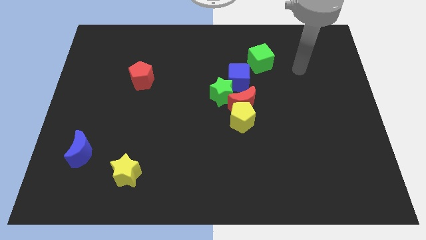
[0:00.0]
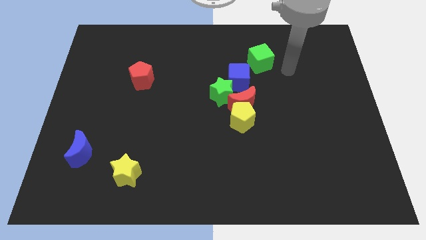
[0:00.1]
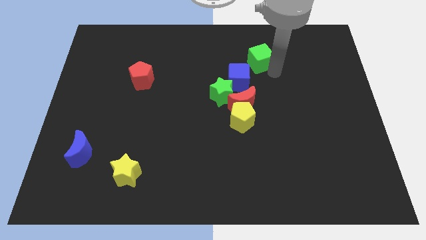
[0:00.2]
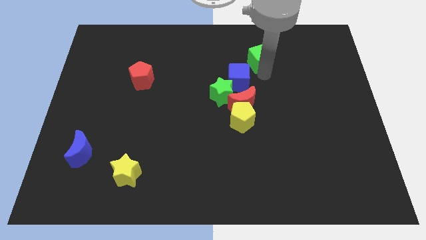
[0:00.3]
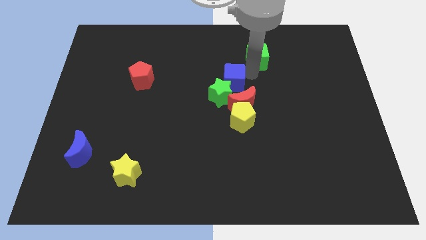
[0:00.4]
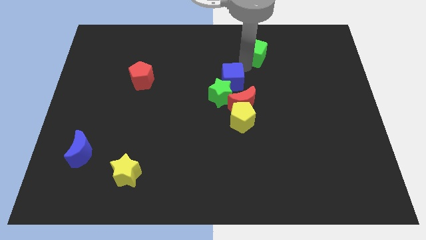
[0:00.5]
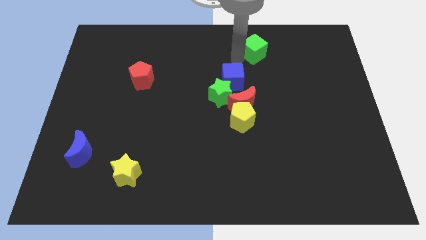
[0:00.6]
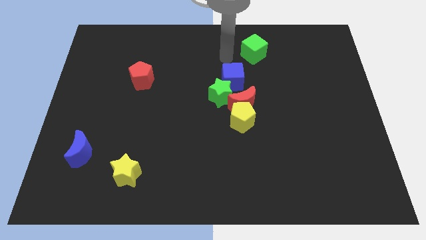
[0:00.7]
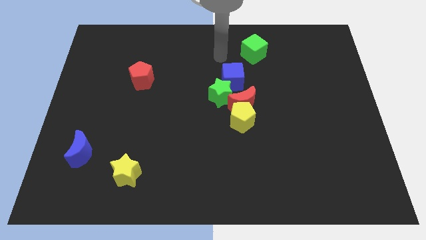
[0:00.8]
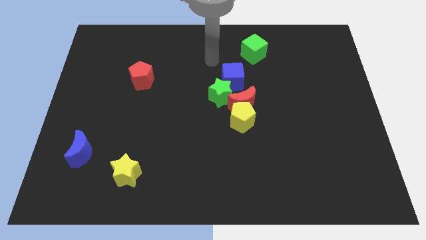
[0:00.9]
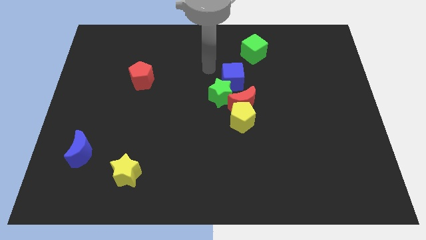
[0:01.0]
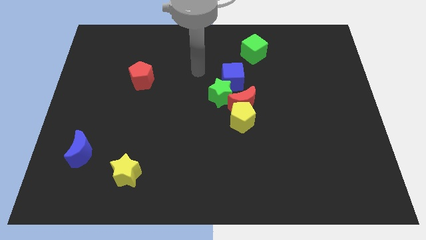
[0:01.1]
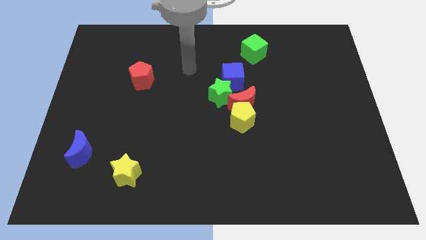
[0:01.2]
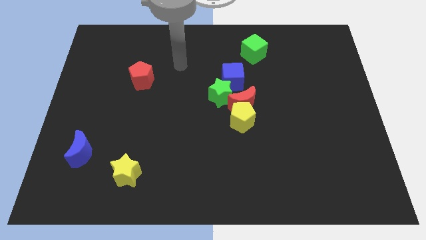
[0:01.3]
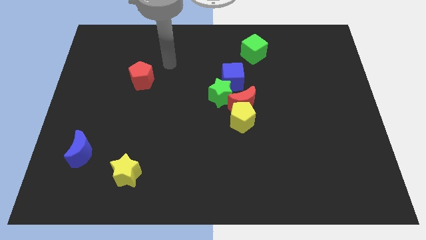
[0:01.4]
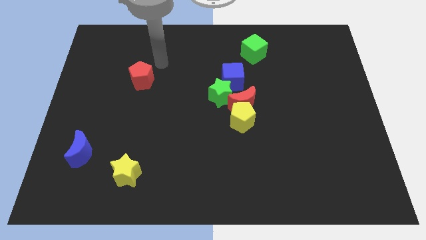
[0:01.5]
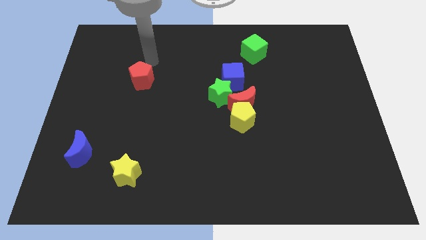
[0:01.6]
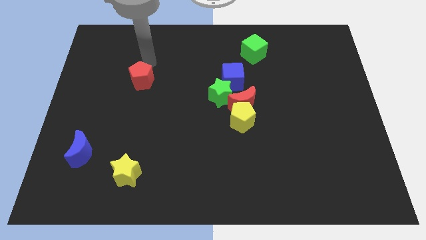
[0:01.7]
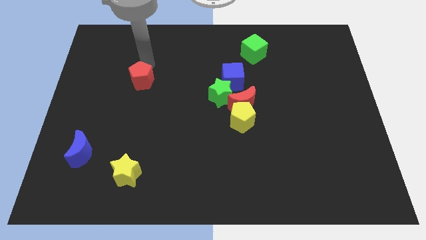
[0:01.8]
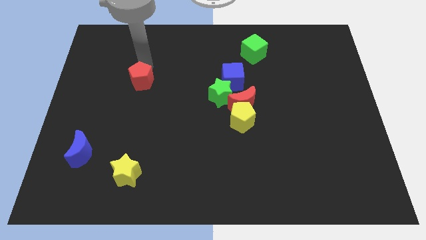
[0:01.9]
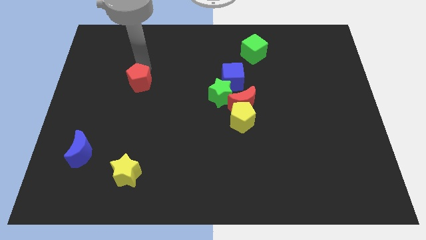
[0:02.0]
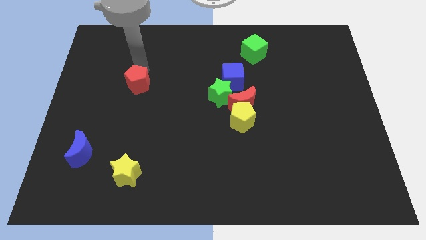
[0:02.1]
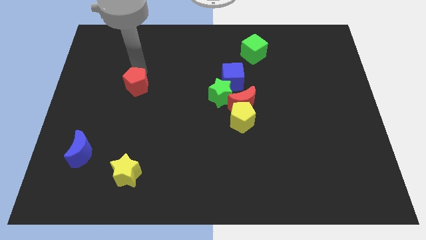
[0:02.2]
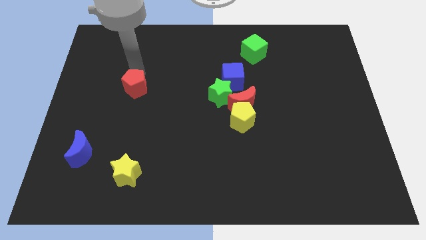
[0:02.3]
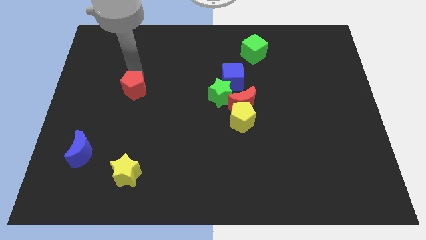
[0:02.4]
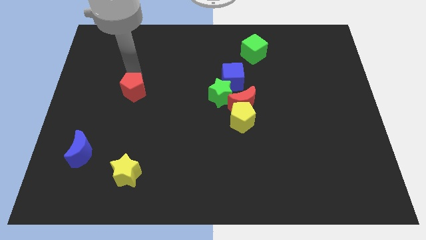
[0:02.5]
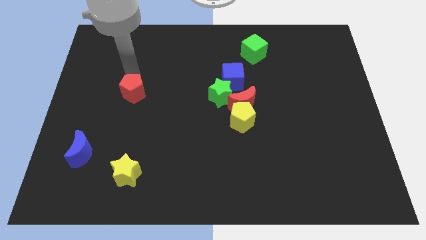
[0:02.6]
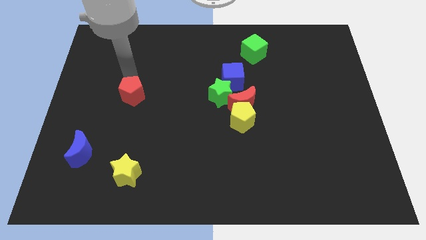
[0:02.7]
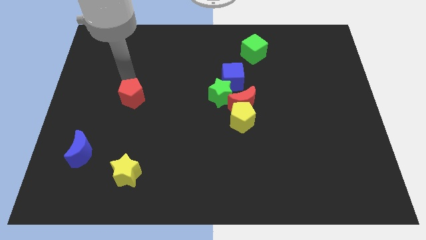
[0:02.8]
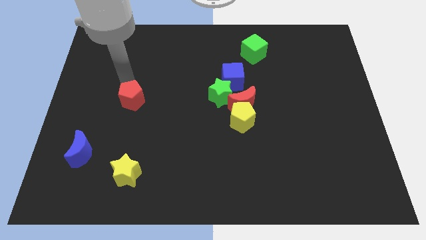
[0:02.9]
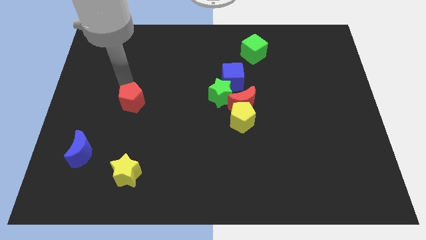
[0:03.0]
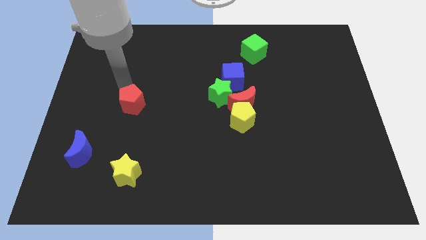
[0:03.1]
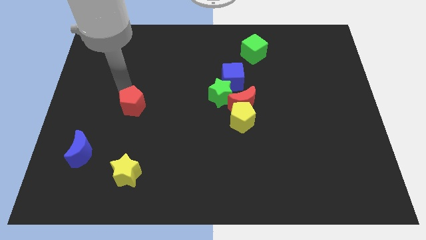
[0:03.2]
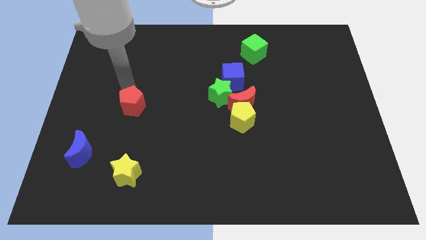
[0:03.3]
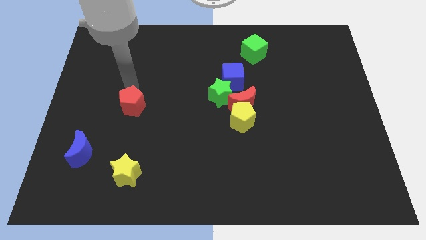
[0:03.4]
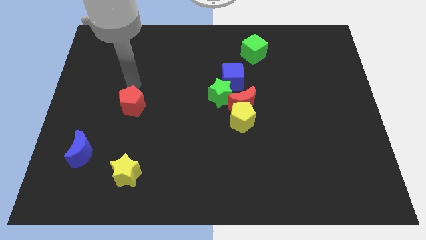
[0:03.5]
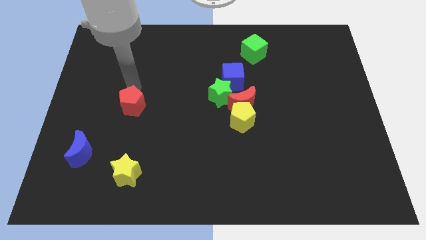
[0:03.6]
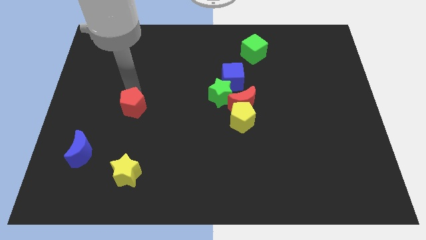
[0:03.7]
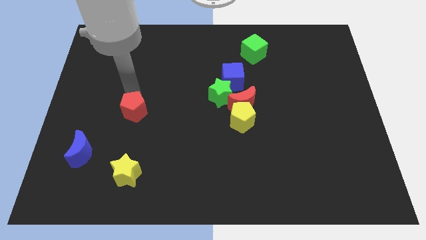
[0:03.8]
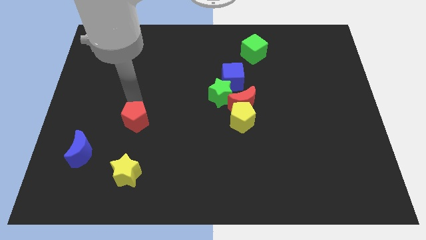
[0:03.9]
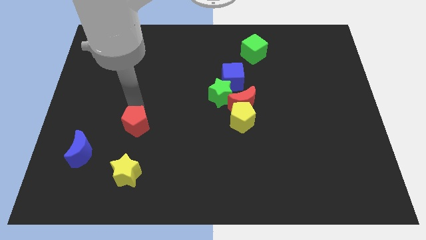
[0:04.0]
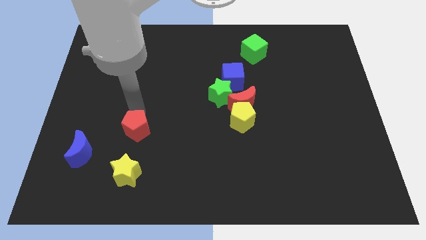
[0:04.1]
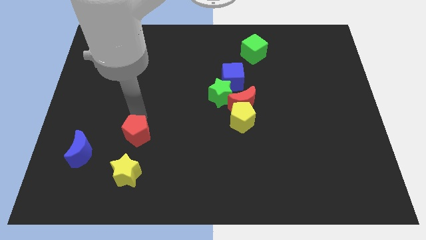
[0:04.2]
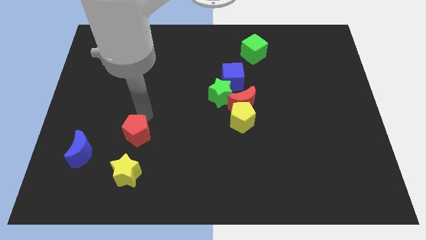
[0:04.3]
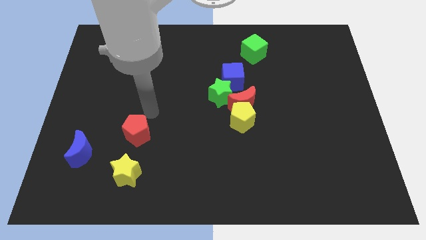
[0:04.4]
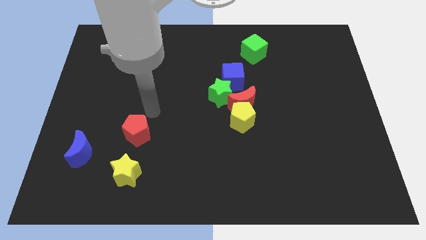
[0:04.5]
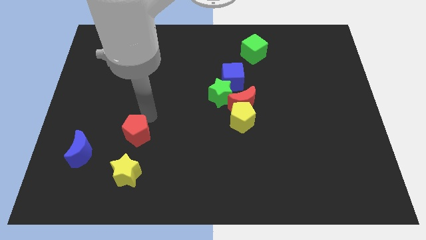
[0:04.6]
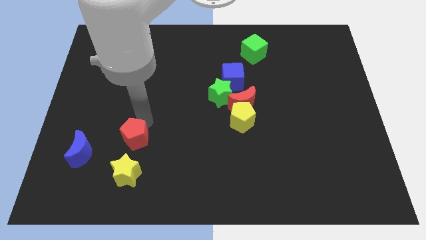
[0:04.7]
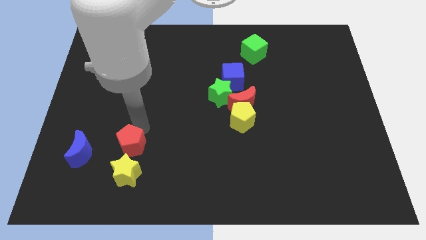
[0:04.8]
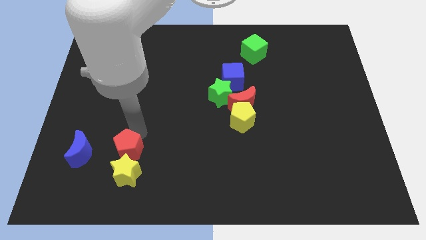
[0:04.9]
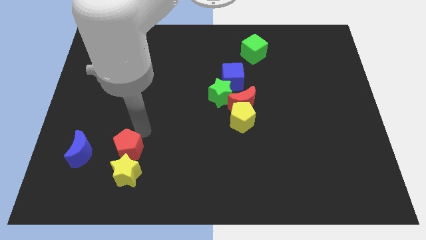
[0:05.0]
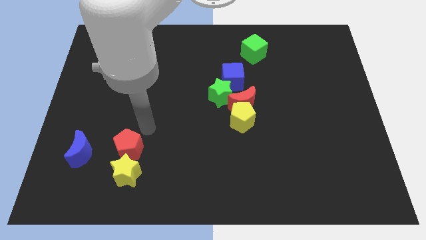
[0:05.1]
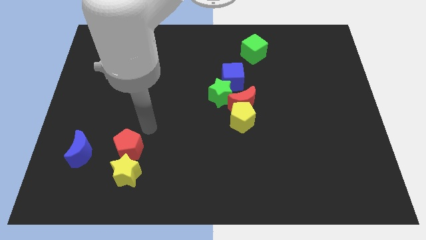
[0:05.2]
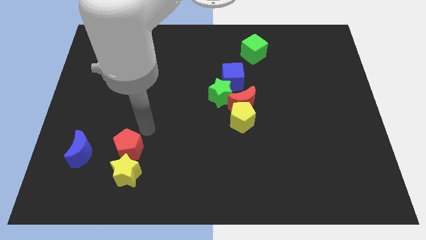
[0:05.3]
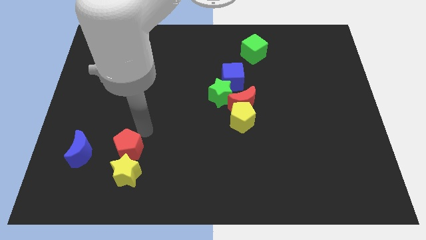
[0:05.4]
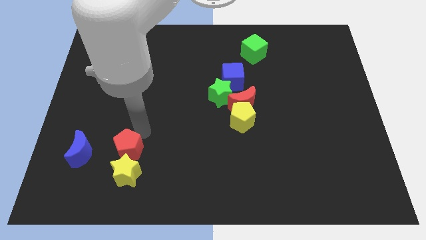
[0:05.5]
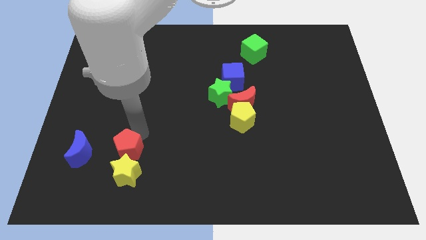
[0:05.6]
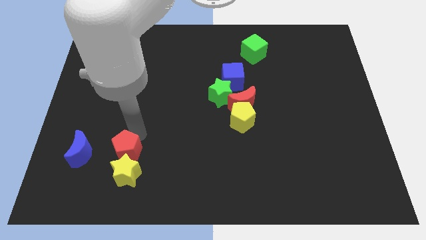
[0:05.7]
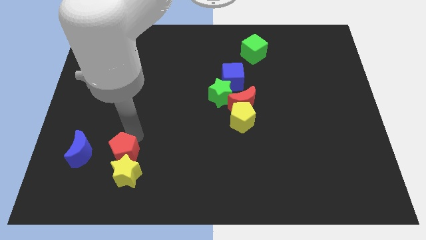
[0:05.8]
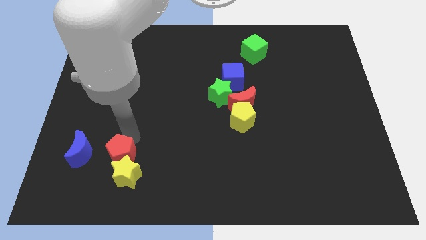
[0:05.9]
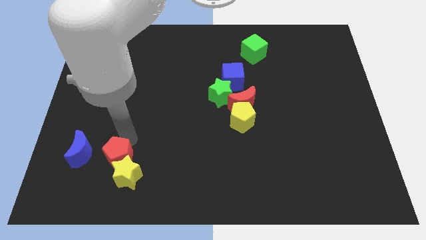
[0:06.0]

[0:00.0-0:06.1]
move the red pentagon to the bottom right side of the blue moon

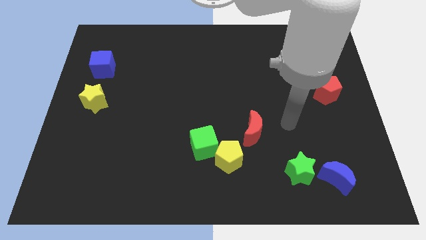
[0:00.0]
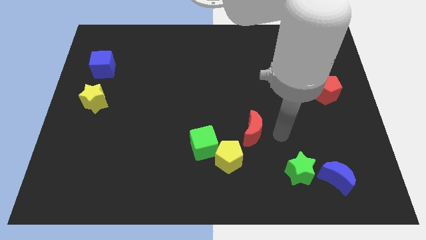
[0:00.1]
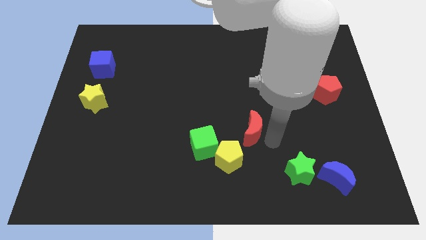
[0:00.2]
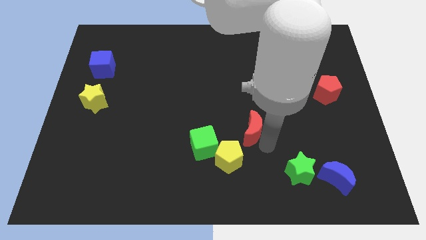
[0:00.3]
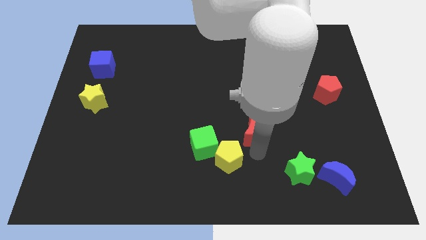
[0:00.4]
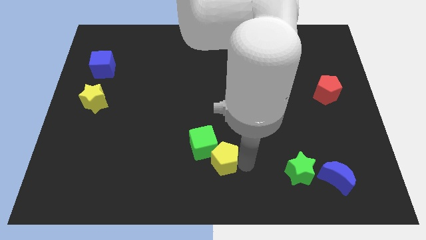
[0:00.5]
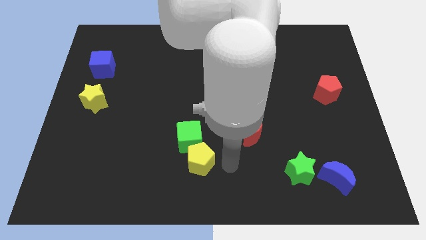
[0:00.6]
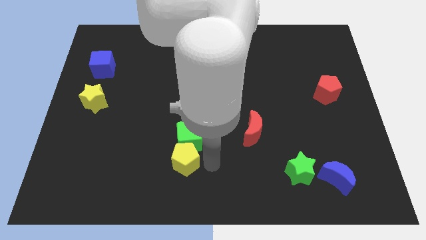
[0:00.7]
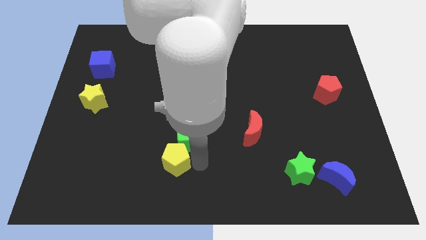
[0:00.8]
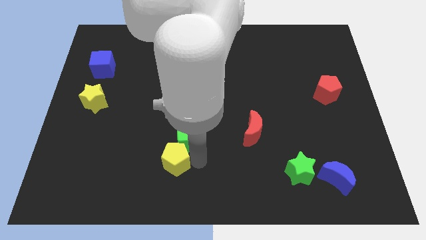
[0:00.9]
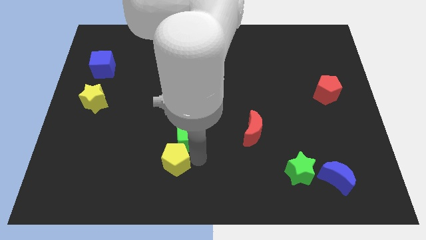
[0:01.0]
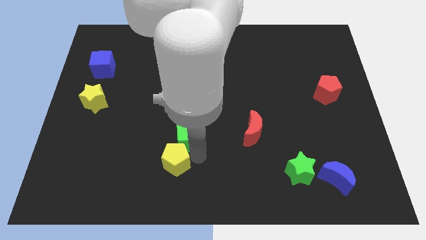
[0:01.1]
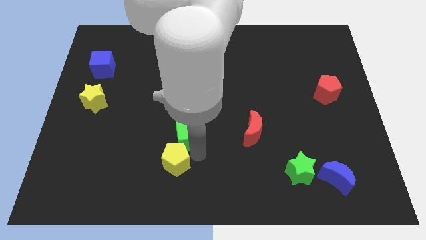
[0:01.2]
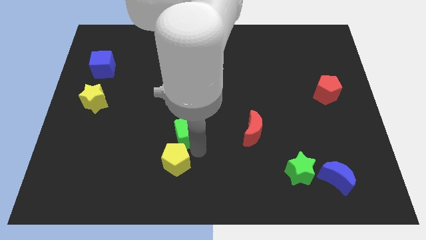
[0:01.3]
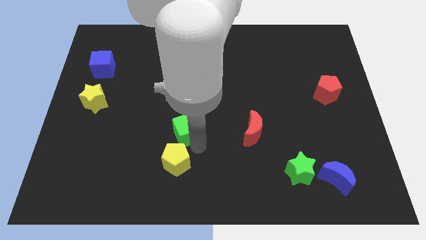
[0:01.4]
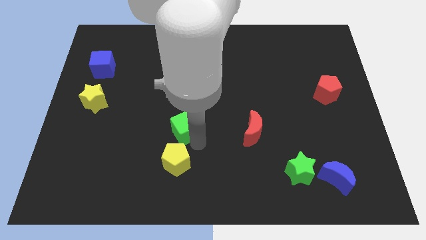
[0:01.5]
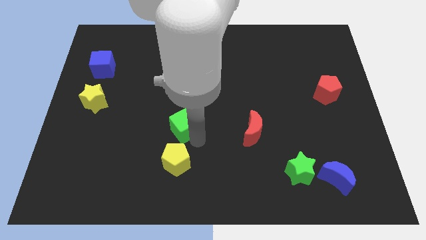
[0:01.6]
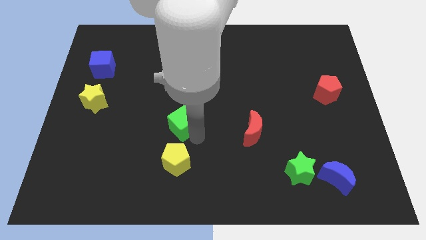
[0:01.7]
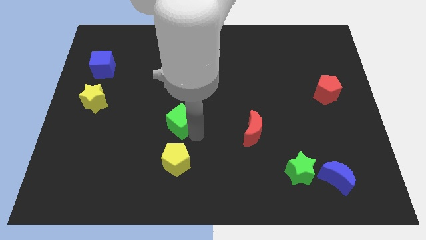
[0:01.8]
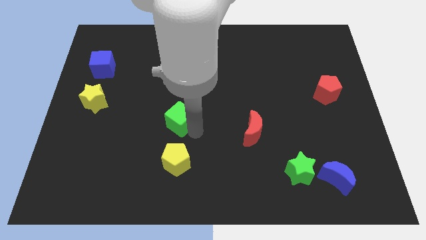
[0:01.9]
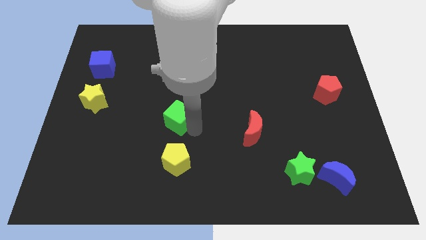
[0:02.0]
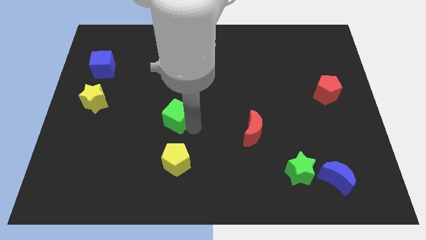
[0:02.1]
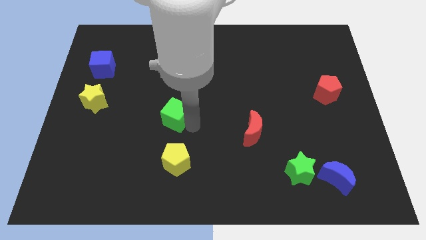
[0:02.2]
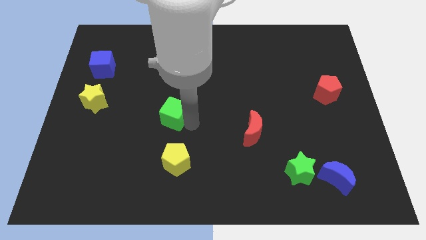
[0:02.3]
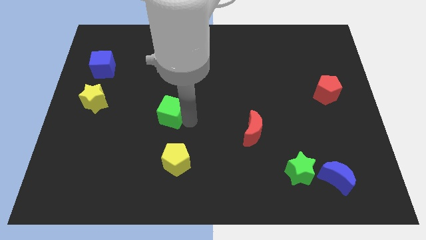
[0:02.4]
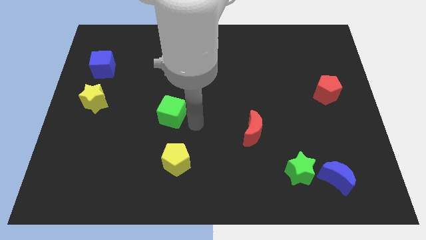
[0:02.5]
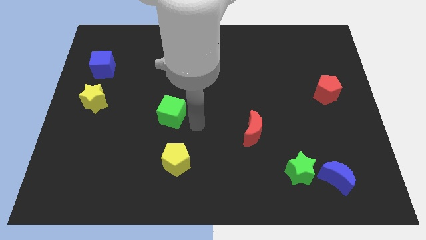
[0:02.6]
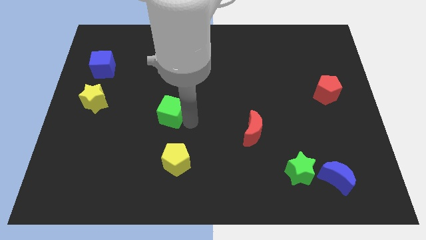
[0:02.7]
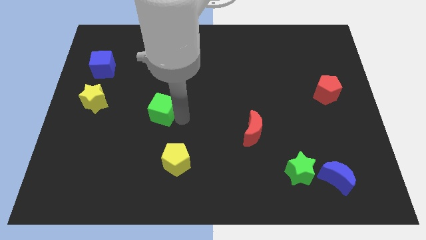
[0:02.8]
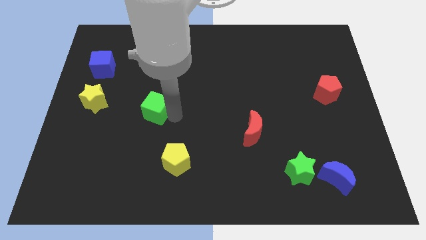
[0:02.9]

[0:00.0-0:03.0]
slide the green cube just right of the yellow star
